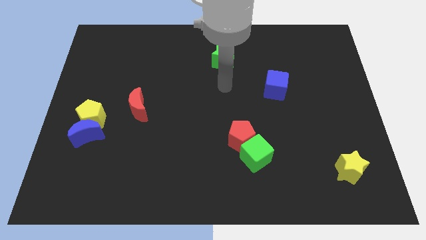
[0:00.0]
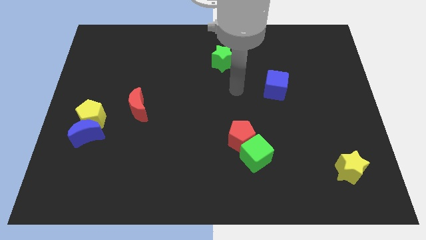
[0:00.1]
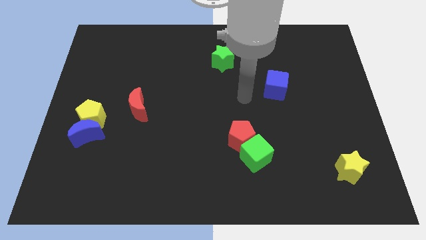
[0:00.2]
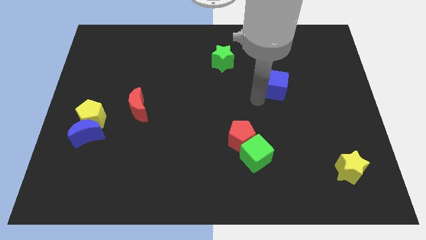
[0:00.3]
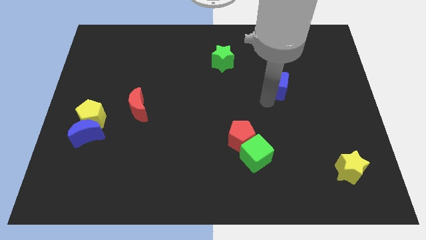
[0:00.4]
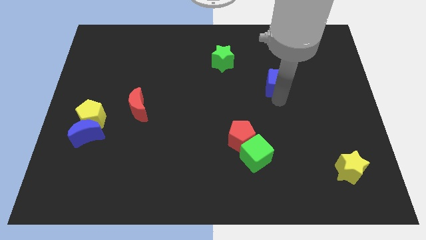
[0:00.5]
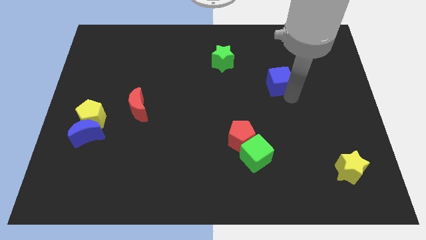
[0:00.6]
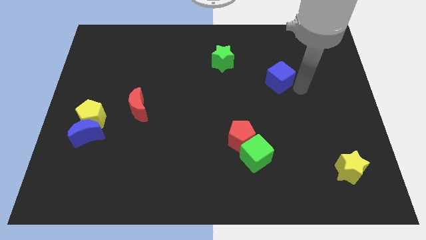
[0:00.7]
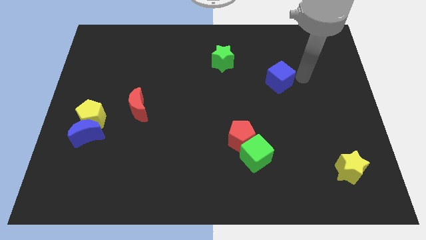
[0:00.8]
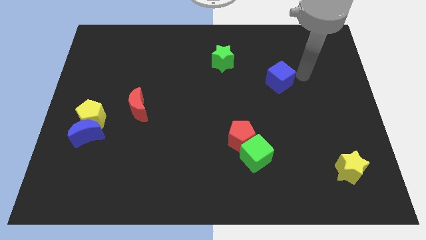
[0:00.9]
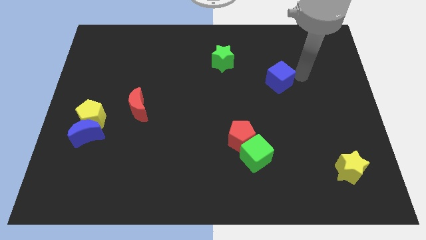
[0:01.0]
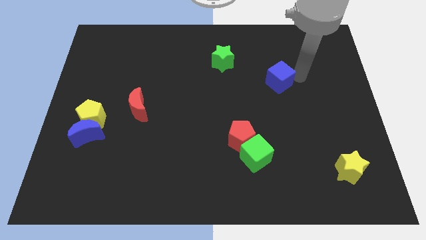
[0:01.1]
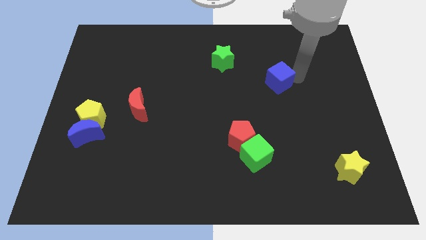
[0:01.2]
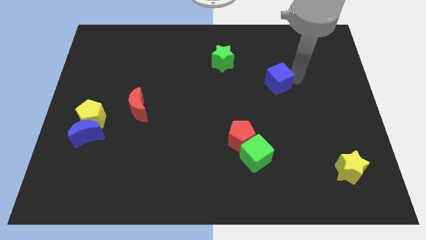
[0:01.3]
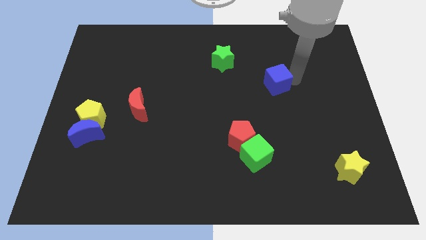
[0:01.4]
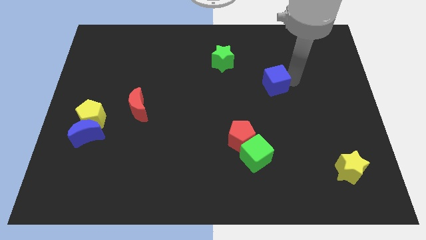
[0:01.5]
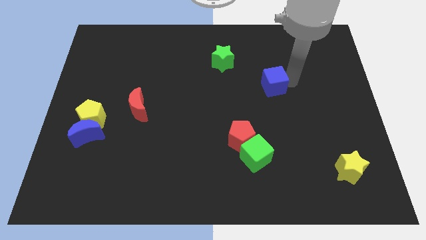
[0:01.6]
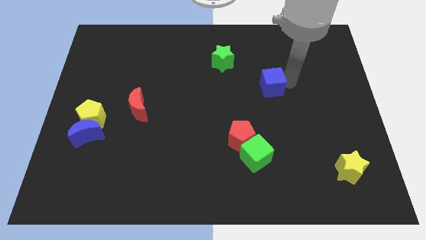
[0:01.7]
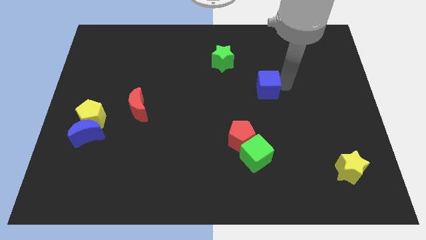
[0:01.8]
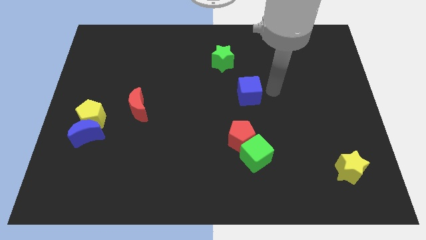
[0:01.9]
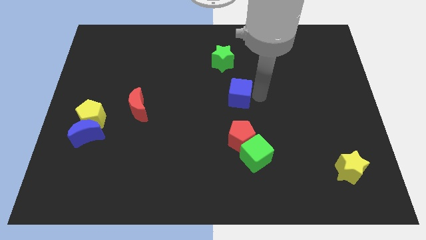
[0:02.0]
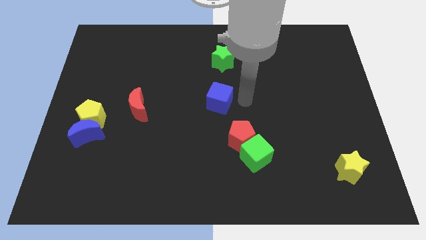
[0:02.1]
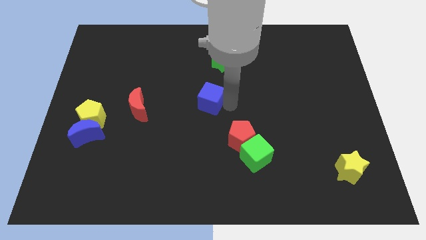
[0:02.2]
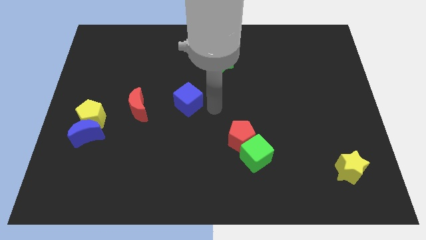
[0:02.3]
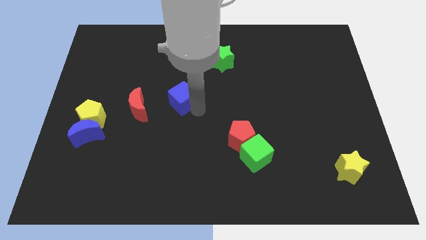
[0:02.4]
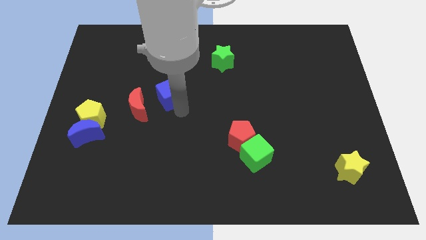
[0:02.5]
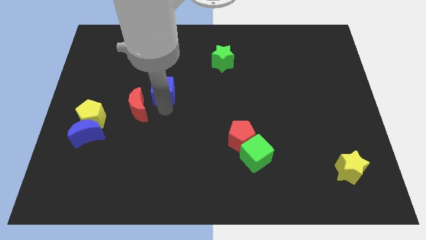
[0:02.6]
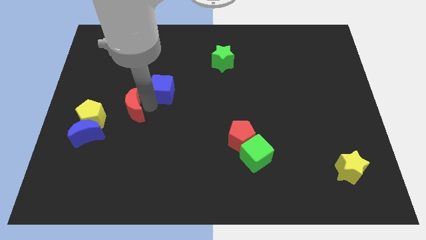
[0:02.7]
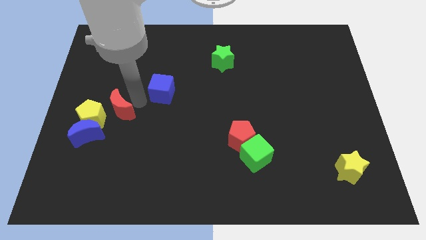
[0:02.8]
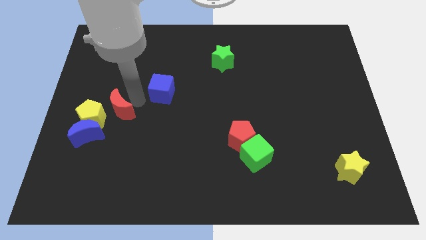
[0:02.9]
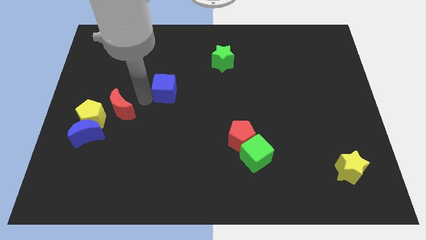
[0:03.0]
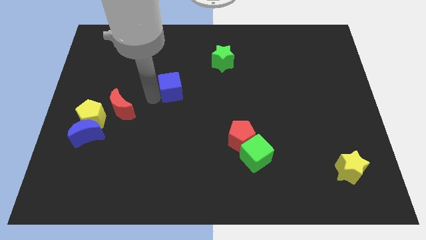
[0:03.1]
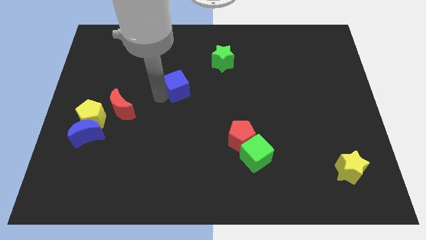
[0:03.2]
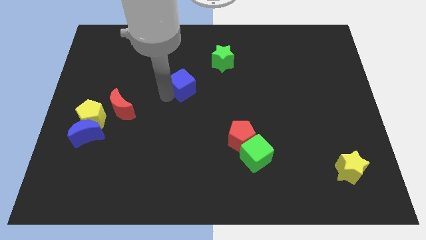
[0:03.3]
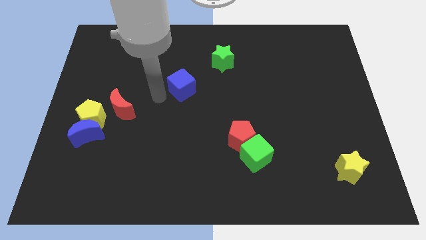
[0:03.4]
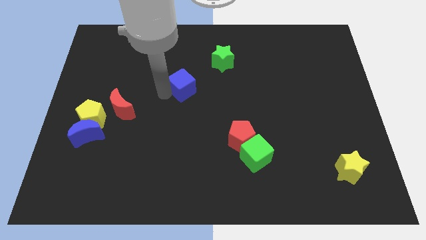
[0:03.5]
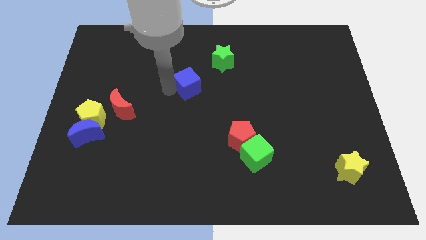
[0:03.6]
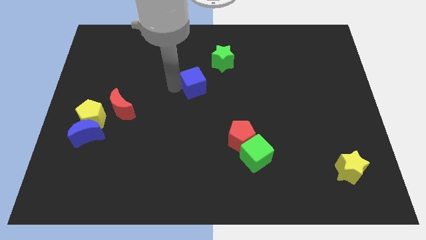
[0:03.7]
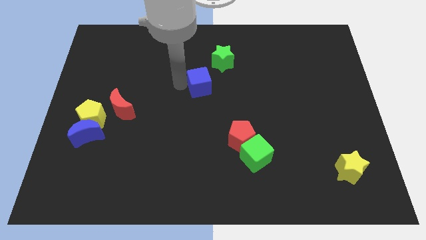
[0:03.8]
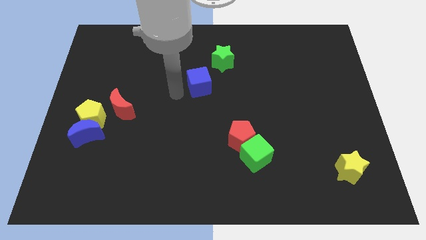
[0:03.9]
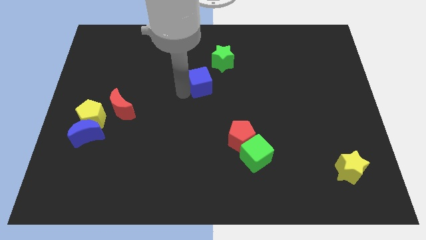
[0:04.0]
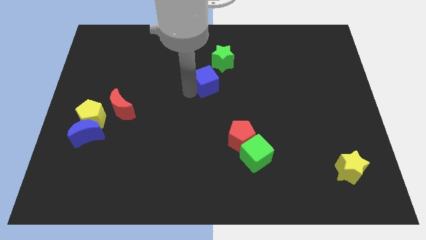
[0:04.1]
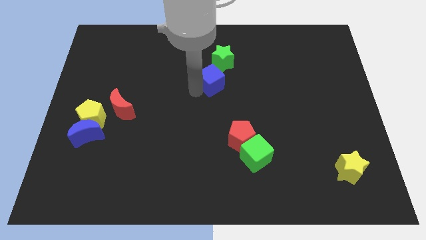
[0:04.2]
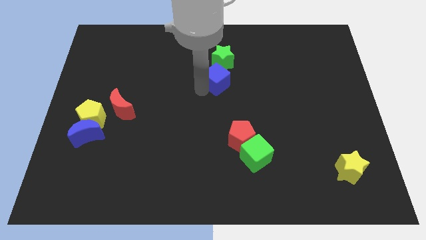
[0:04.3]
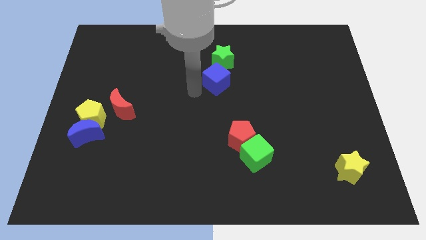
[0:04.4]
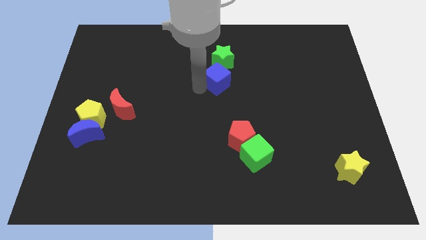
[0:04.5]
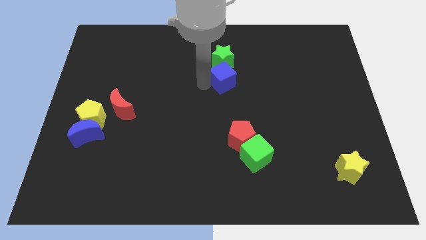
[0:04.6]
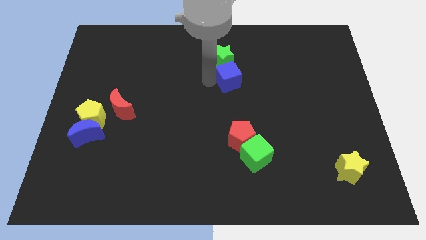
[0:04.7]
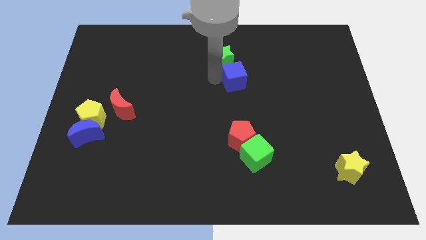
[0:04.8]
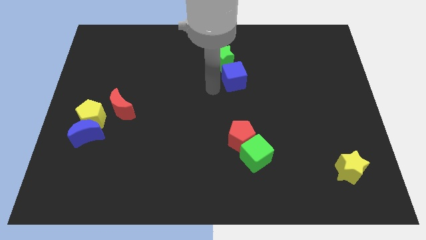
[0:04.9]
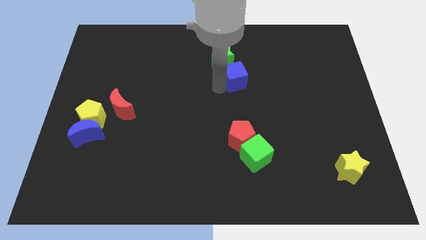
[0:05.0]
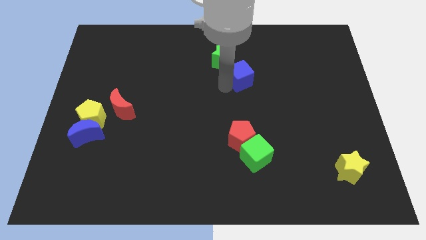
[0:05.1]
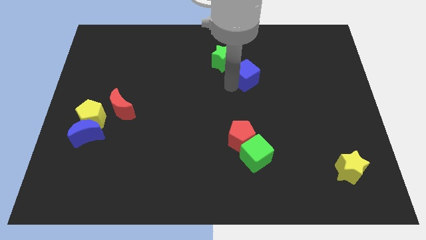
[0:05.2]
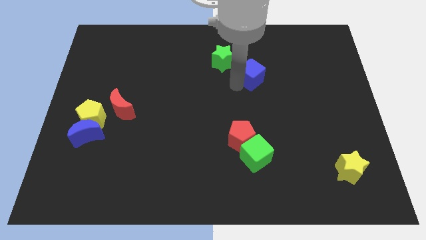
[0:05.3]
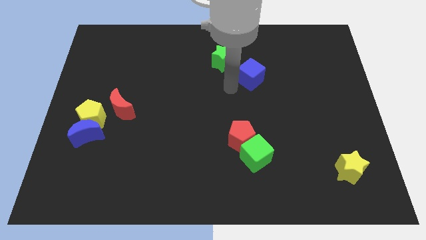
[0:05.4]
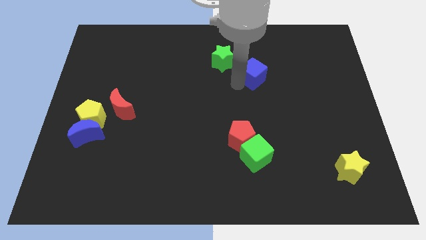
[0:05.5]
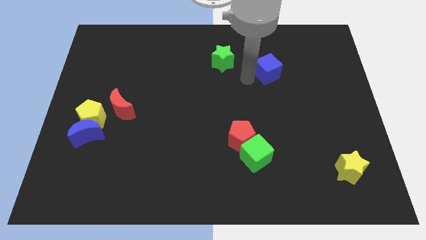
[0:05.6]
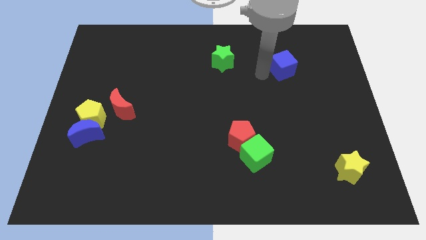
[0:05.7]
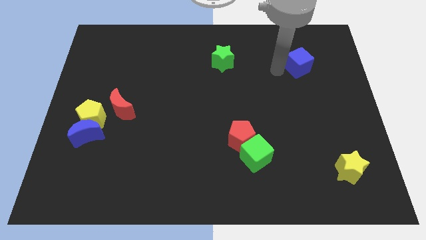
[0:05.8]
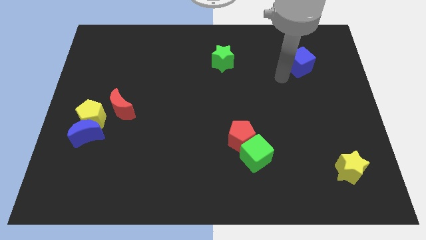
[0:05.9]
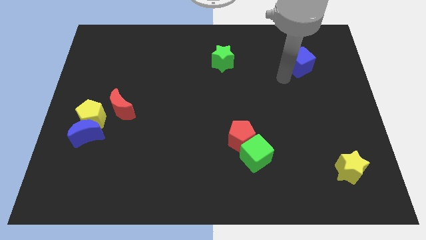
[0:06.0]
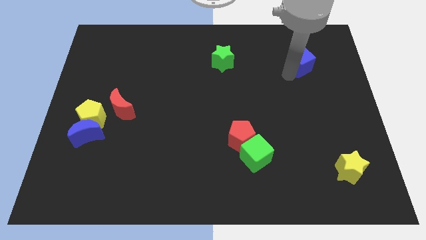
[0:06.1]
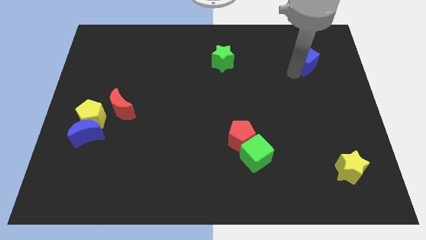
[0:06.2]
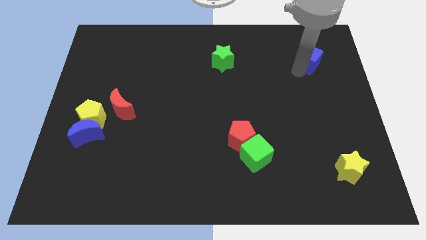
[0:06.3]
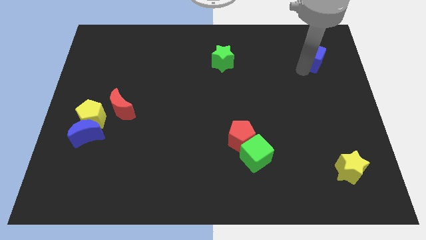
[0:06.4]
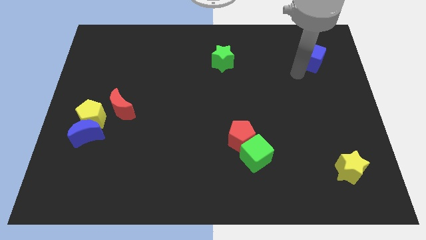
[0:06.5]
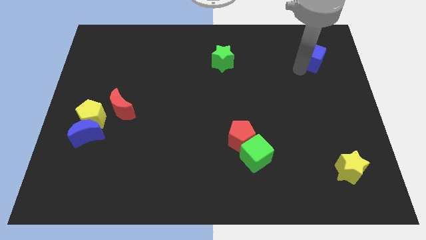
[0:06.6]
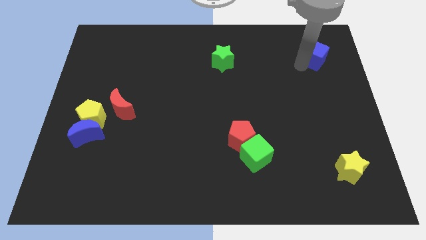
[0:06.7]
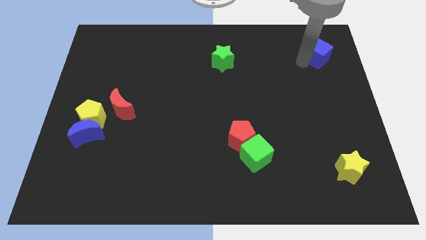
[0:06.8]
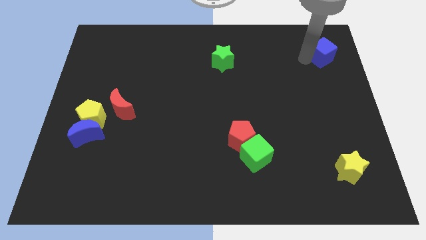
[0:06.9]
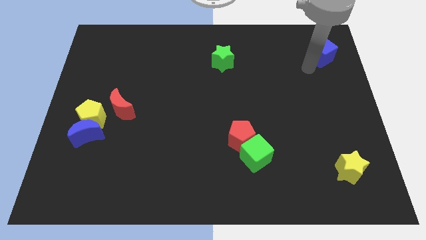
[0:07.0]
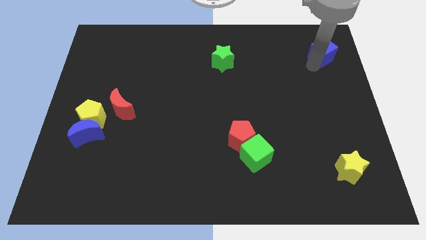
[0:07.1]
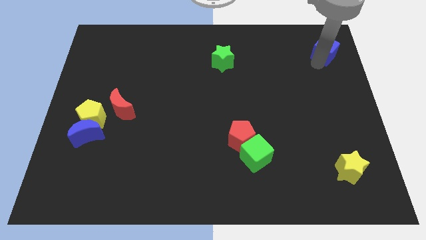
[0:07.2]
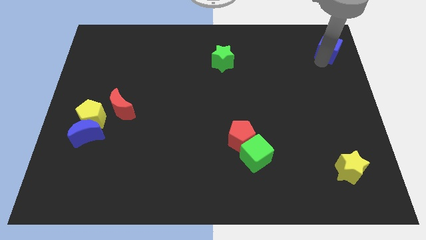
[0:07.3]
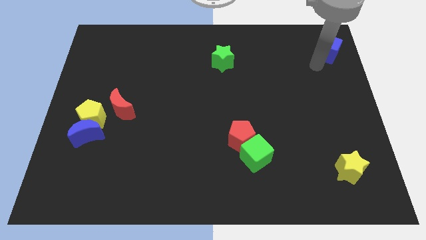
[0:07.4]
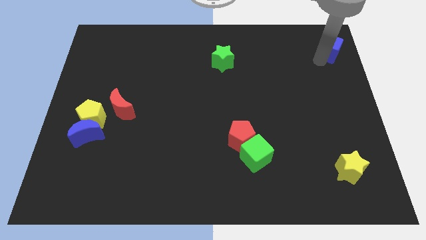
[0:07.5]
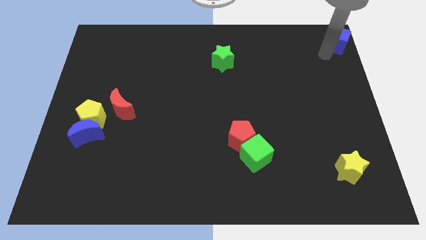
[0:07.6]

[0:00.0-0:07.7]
slide the blue cube to the top right corner
